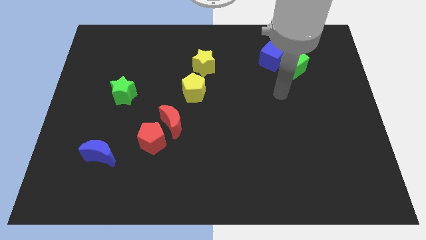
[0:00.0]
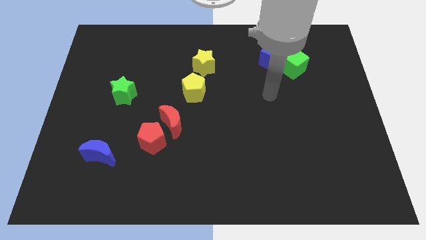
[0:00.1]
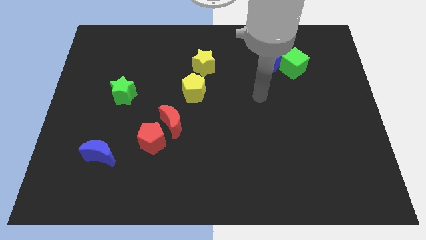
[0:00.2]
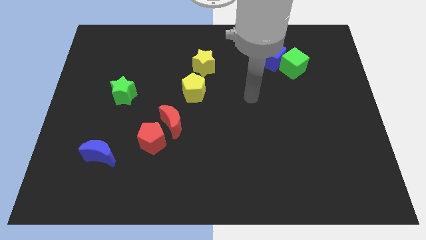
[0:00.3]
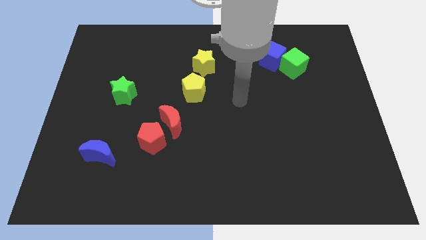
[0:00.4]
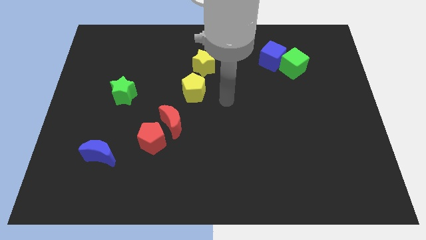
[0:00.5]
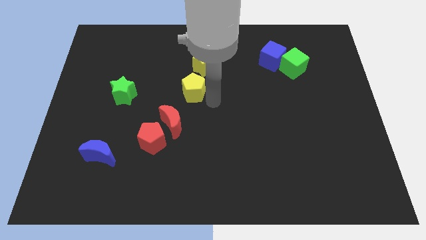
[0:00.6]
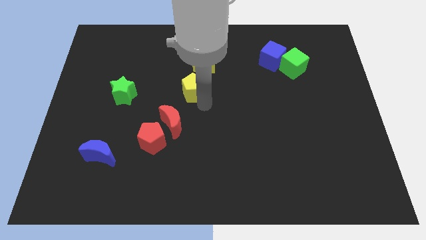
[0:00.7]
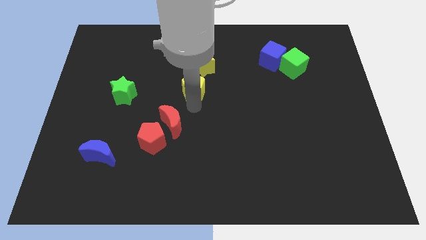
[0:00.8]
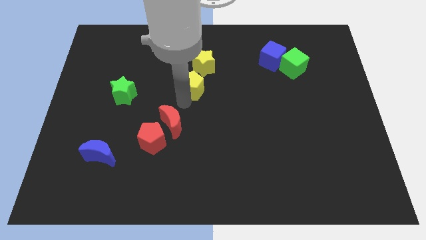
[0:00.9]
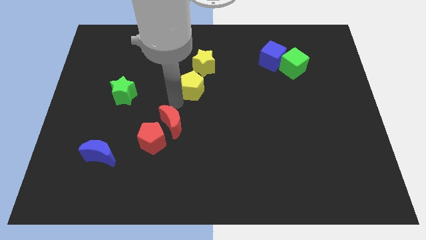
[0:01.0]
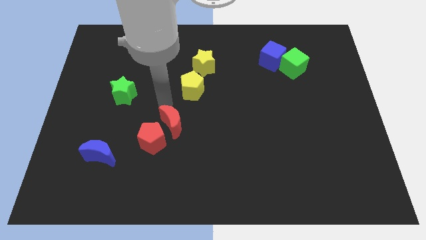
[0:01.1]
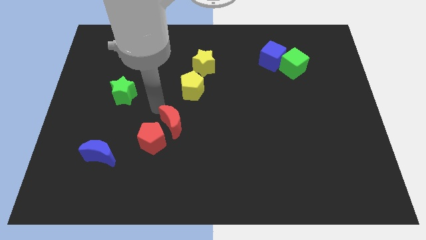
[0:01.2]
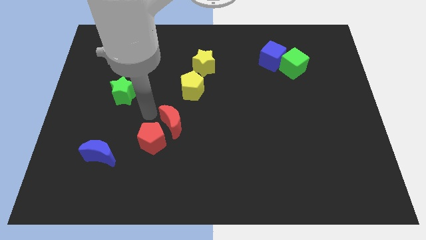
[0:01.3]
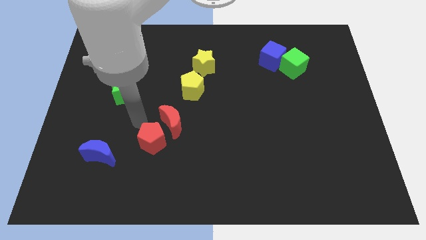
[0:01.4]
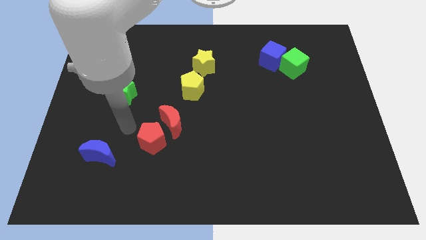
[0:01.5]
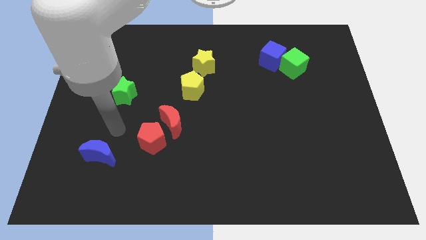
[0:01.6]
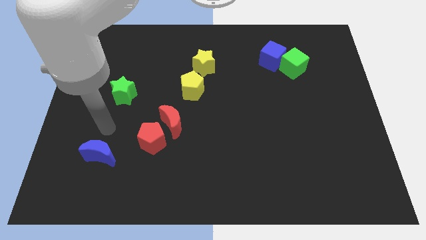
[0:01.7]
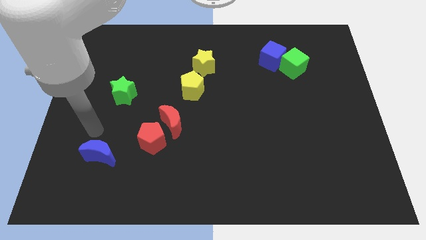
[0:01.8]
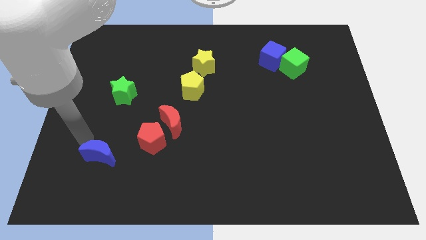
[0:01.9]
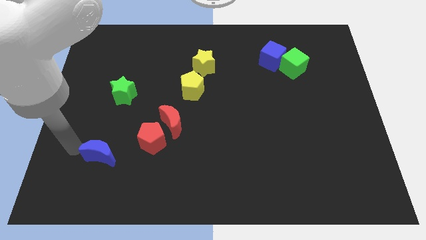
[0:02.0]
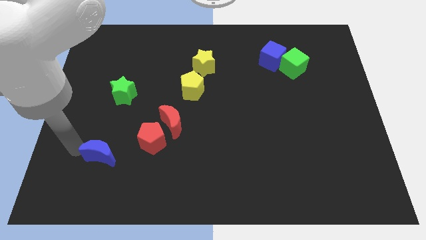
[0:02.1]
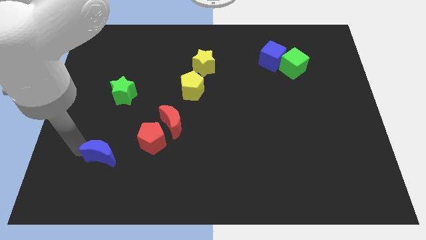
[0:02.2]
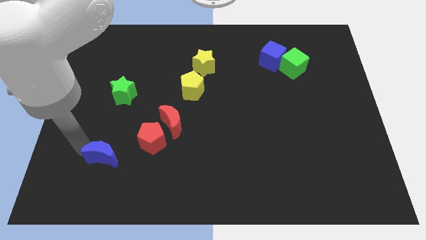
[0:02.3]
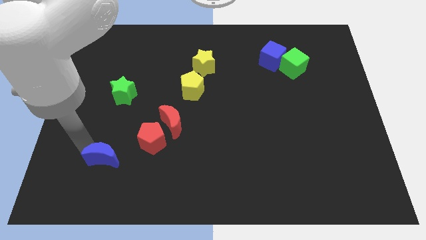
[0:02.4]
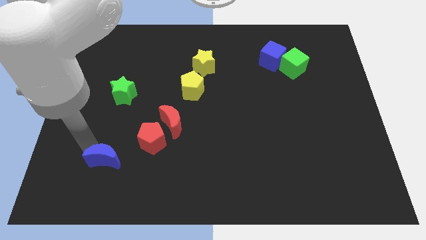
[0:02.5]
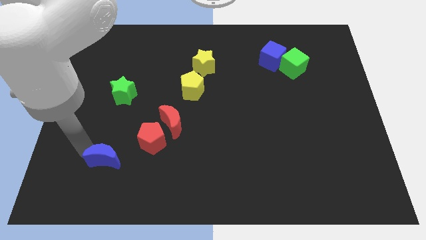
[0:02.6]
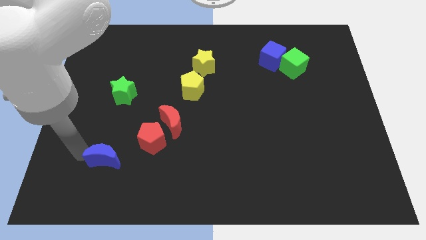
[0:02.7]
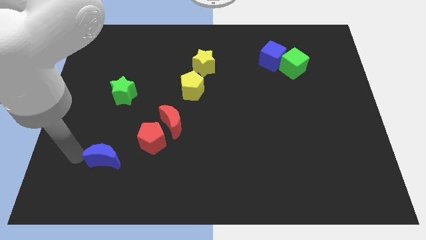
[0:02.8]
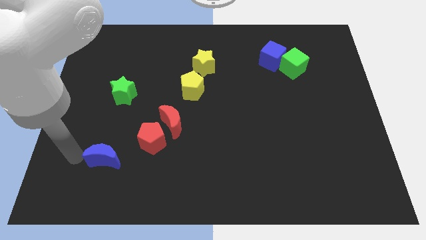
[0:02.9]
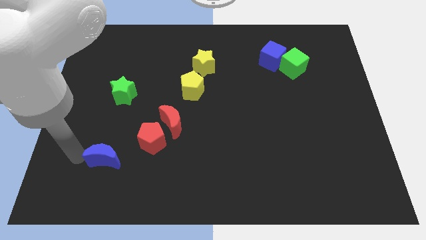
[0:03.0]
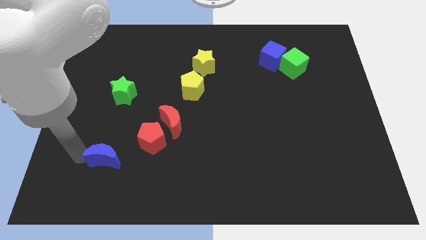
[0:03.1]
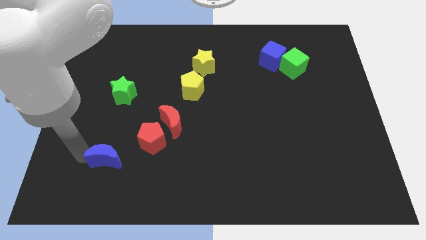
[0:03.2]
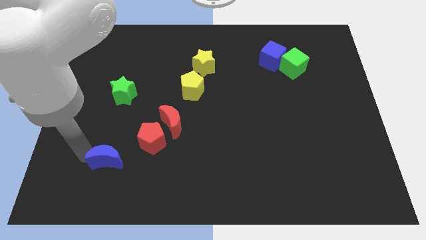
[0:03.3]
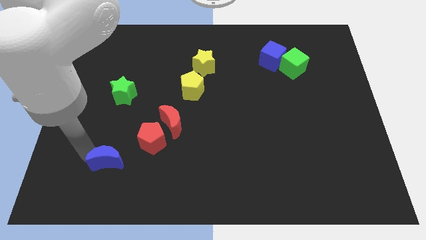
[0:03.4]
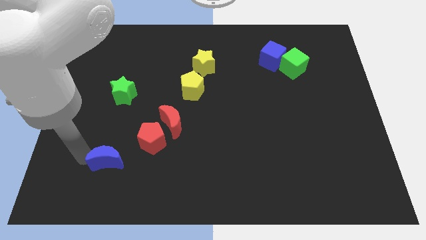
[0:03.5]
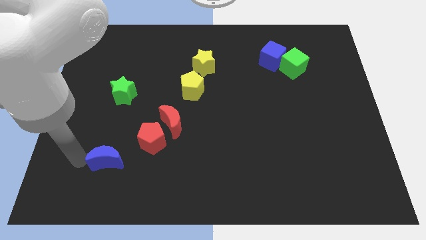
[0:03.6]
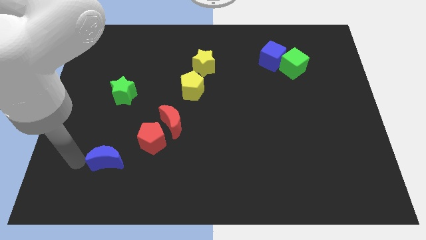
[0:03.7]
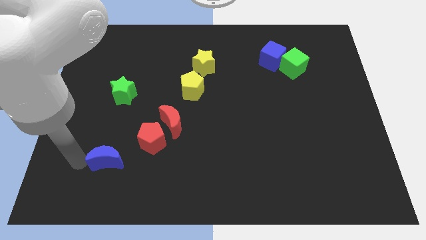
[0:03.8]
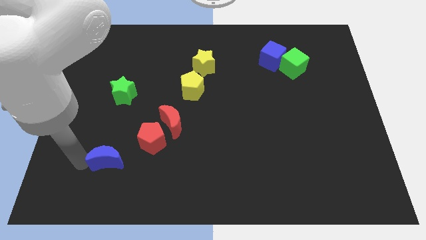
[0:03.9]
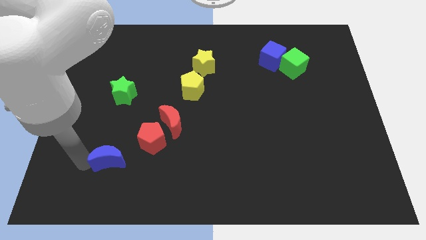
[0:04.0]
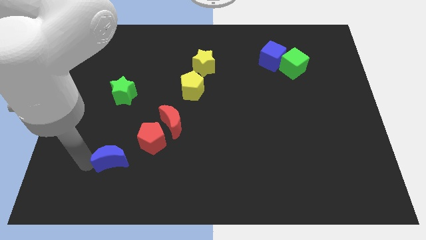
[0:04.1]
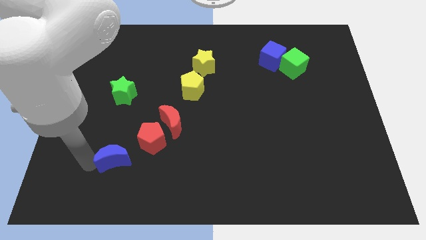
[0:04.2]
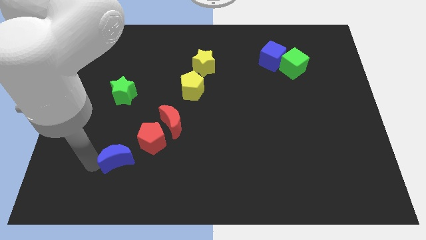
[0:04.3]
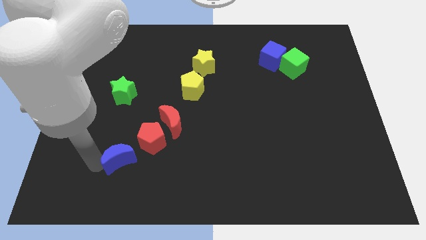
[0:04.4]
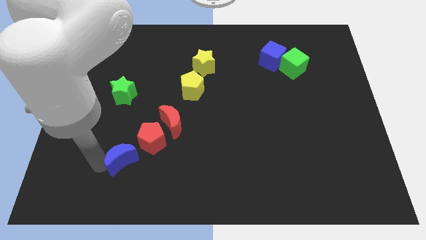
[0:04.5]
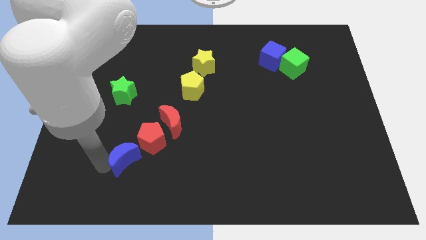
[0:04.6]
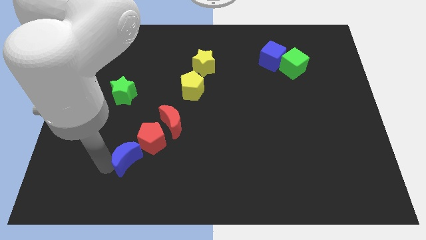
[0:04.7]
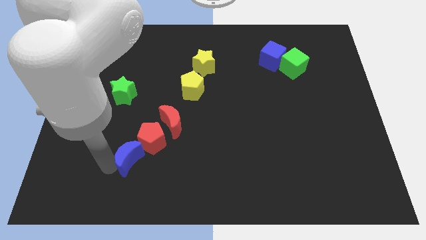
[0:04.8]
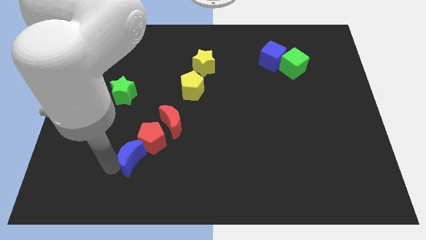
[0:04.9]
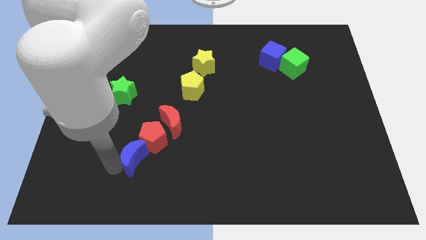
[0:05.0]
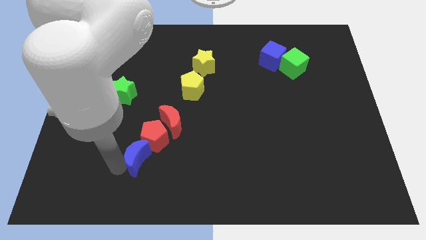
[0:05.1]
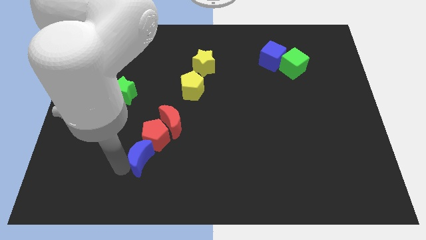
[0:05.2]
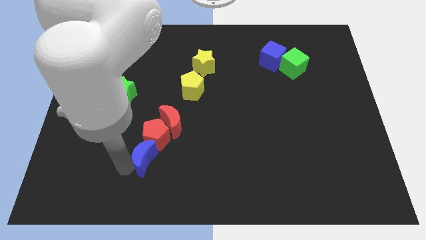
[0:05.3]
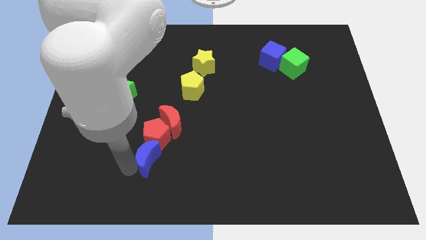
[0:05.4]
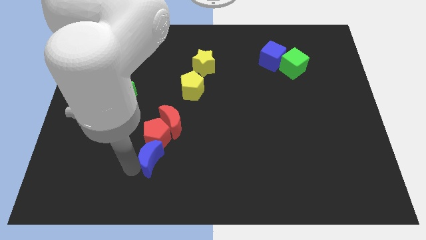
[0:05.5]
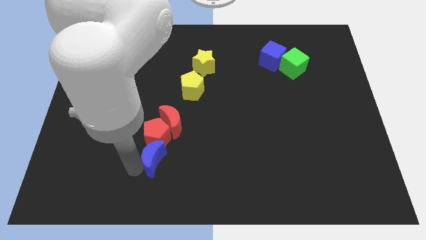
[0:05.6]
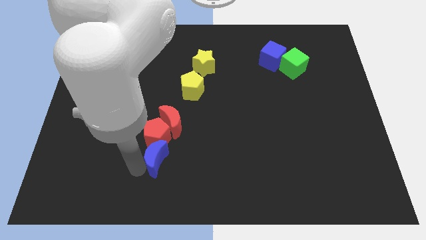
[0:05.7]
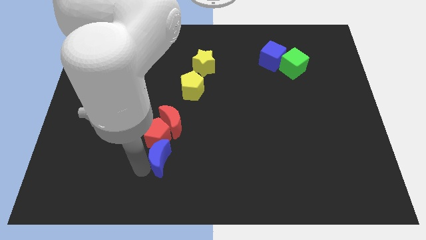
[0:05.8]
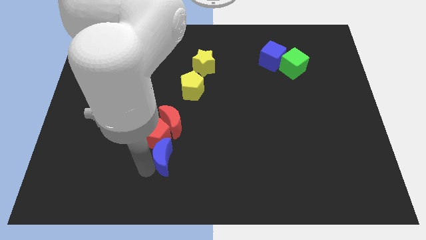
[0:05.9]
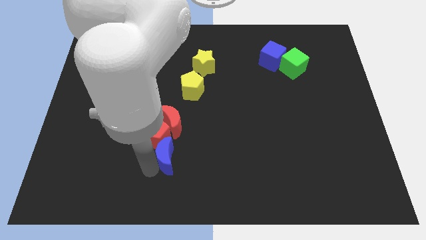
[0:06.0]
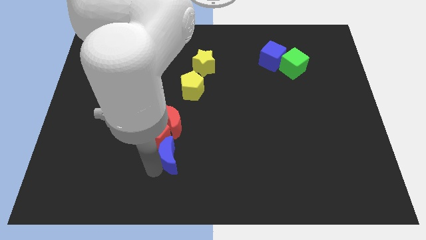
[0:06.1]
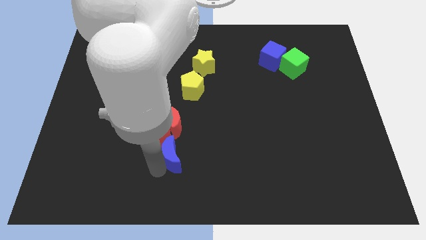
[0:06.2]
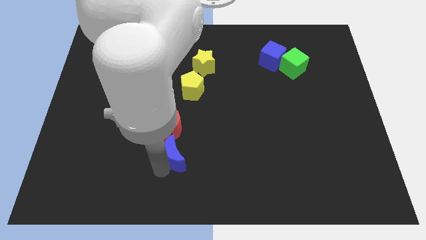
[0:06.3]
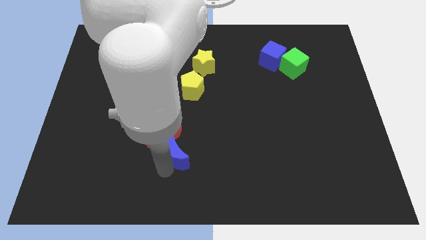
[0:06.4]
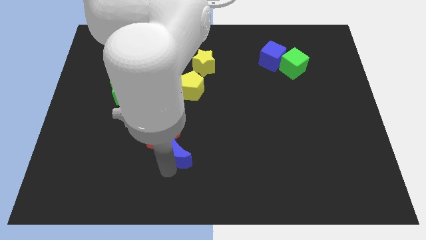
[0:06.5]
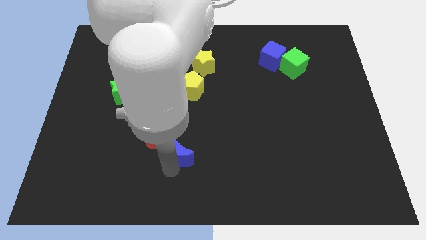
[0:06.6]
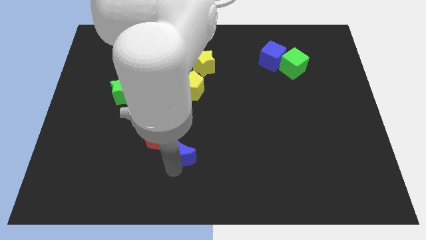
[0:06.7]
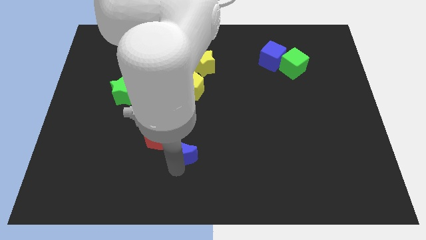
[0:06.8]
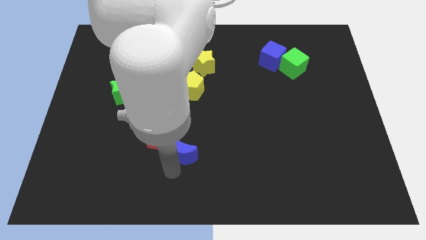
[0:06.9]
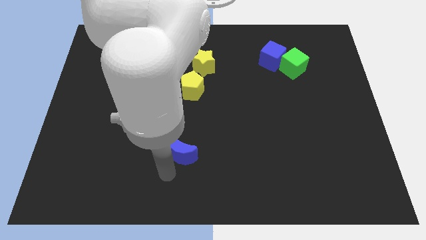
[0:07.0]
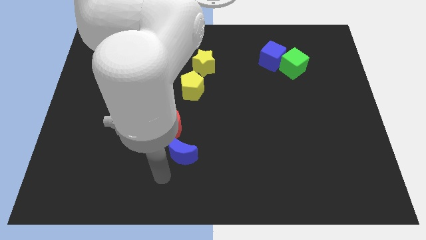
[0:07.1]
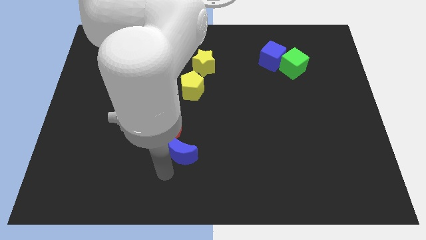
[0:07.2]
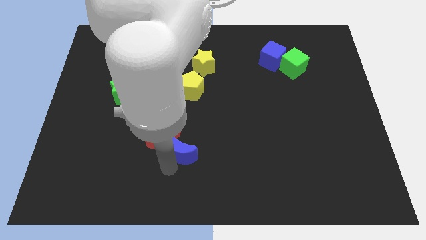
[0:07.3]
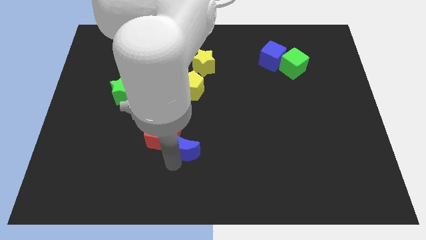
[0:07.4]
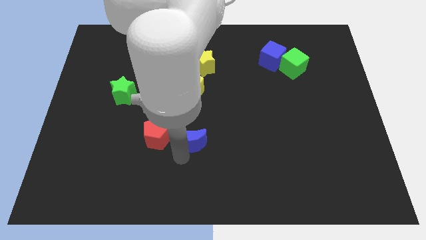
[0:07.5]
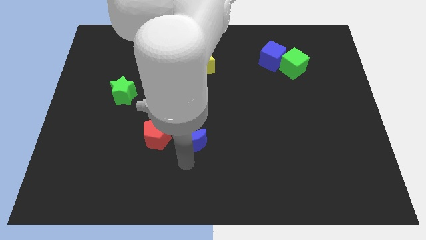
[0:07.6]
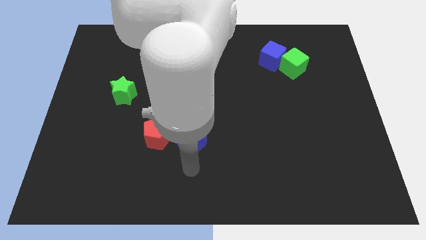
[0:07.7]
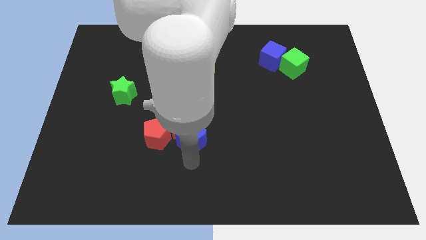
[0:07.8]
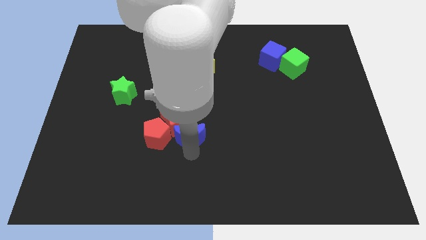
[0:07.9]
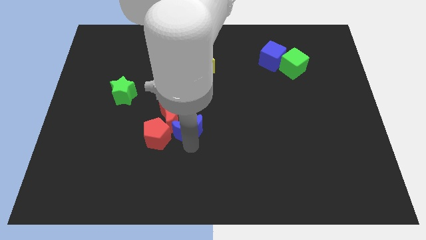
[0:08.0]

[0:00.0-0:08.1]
slide the blue moon to the top right side of the red pentagon
